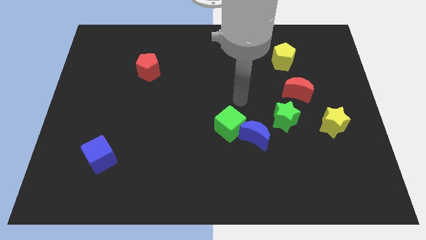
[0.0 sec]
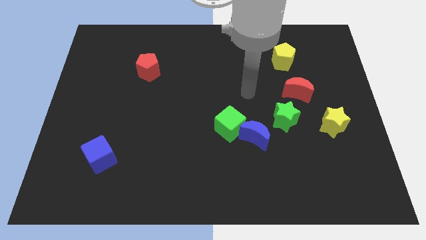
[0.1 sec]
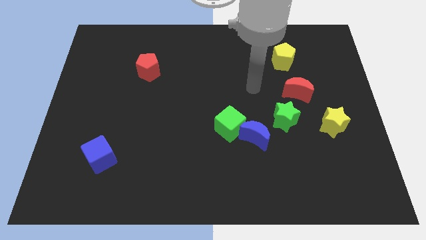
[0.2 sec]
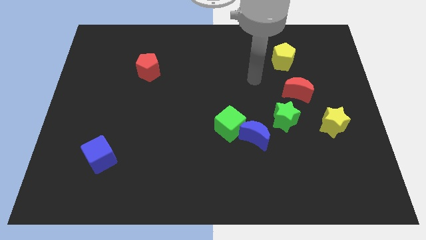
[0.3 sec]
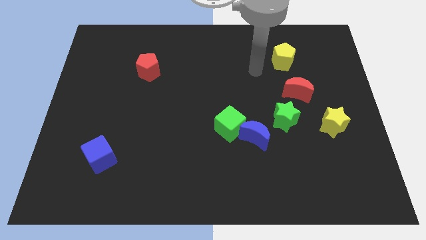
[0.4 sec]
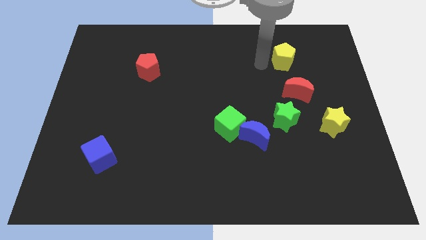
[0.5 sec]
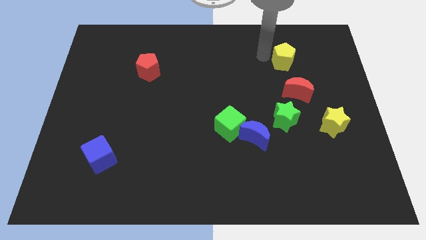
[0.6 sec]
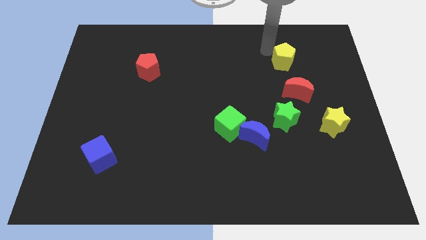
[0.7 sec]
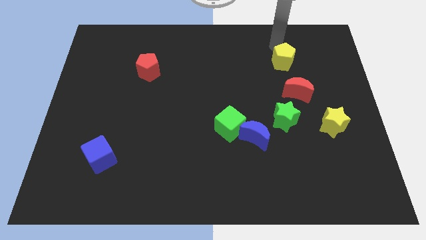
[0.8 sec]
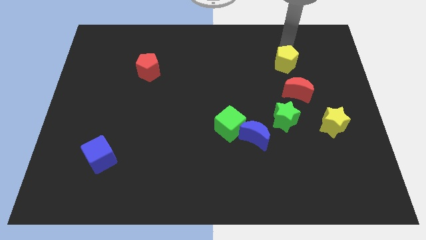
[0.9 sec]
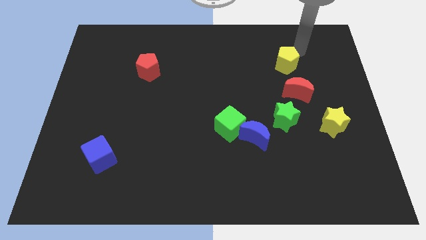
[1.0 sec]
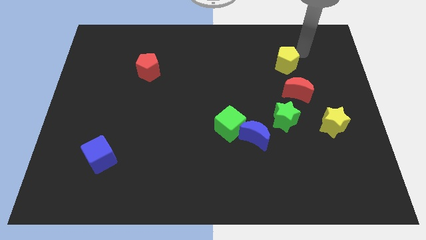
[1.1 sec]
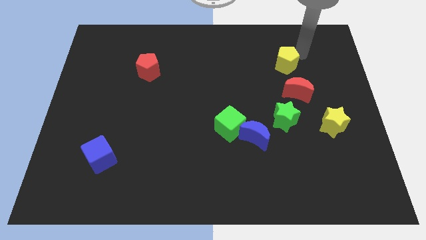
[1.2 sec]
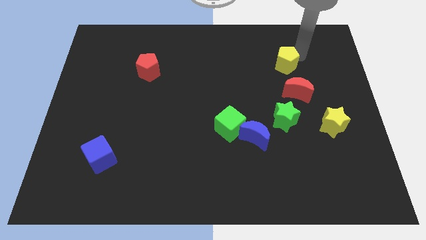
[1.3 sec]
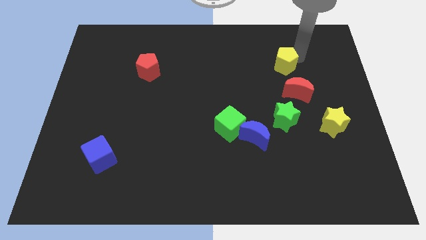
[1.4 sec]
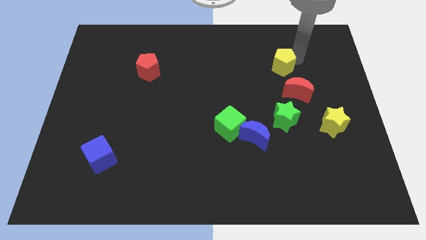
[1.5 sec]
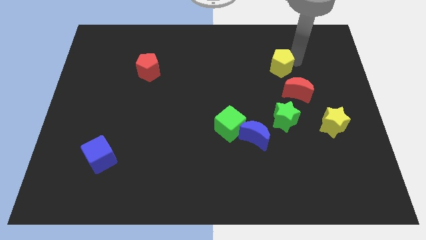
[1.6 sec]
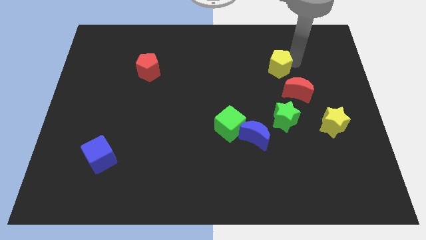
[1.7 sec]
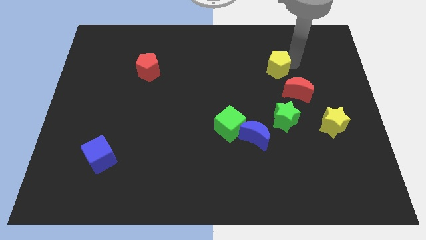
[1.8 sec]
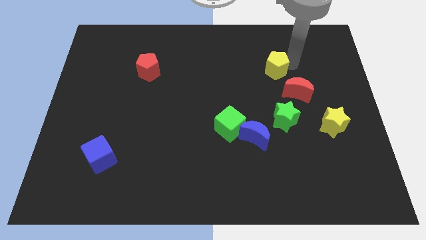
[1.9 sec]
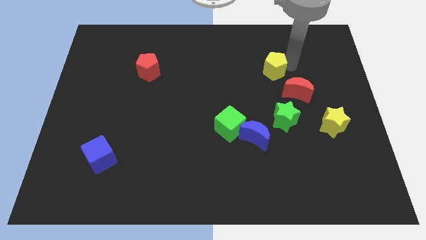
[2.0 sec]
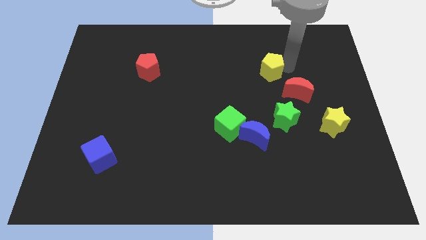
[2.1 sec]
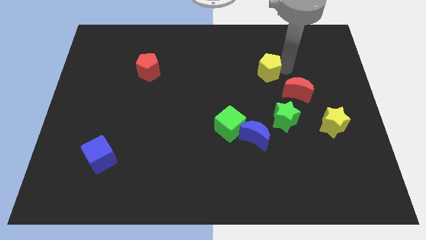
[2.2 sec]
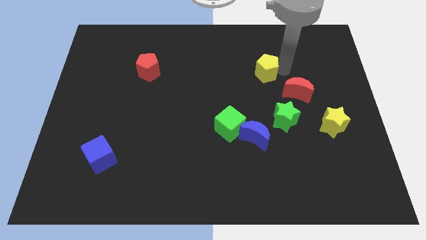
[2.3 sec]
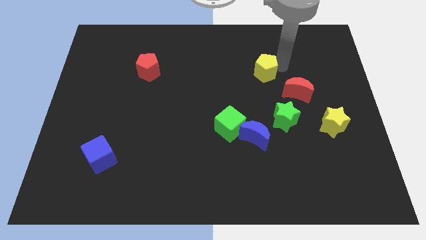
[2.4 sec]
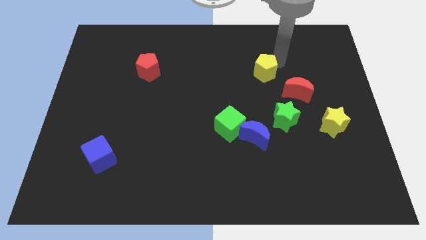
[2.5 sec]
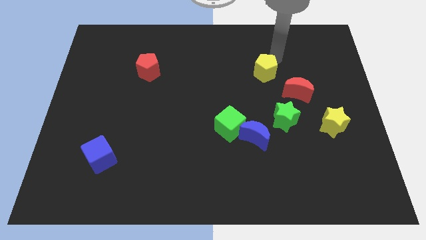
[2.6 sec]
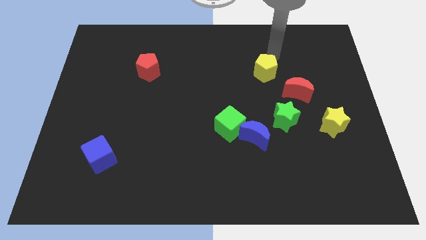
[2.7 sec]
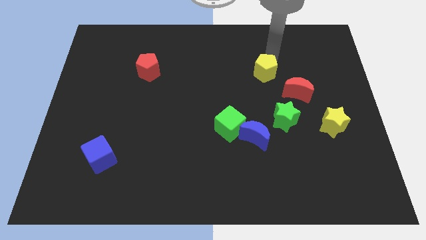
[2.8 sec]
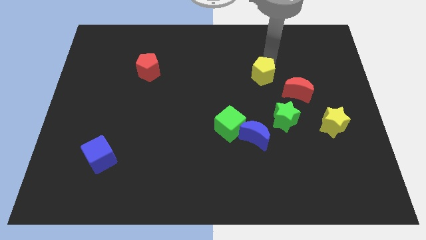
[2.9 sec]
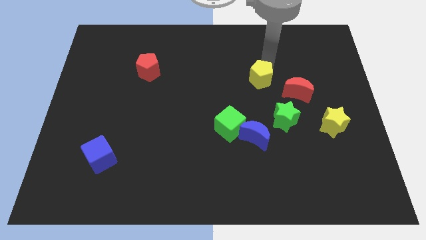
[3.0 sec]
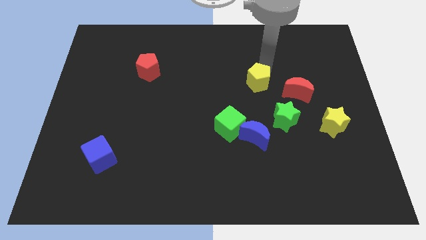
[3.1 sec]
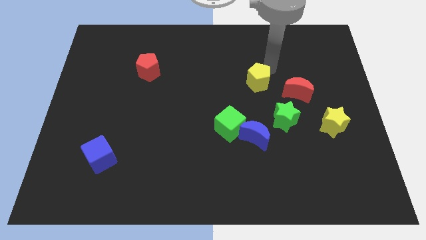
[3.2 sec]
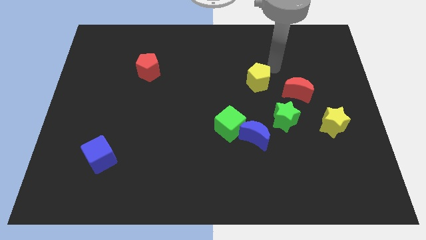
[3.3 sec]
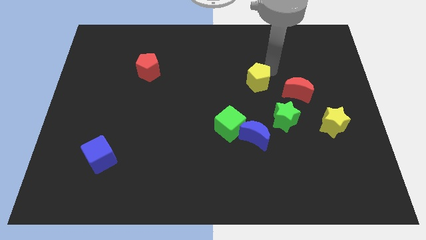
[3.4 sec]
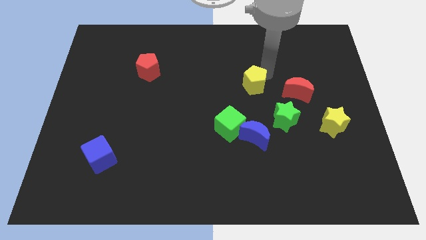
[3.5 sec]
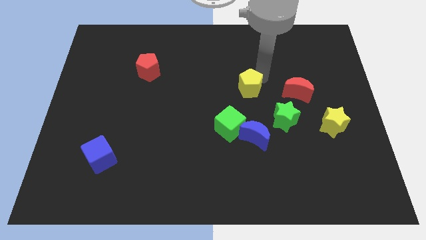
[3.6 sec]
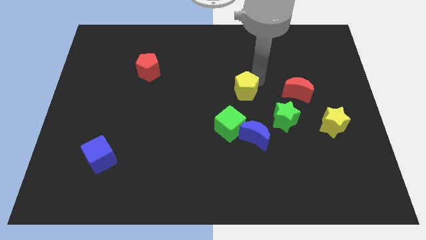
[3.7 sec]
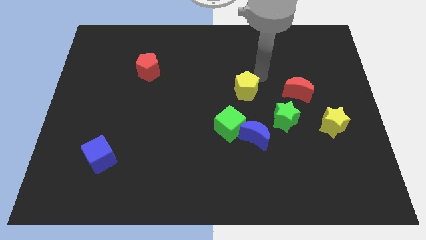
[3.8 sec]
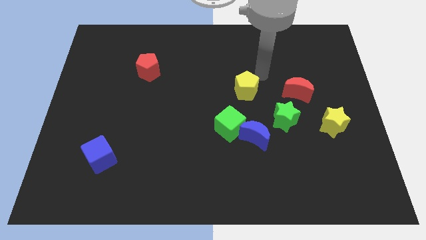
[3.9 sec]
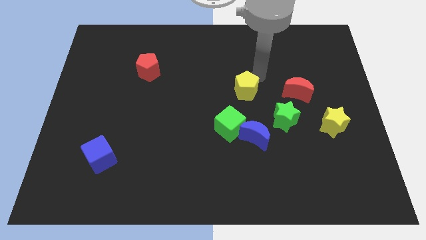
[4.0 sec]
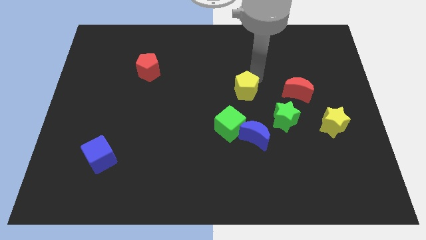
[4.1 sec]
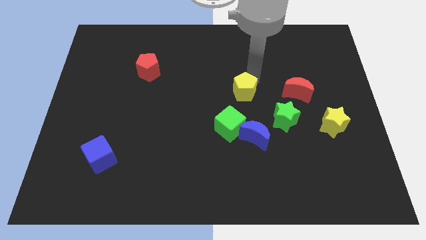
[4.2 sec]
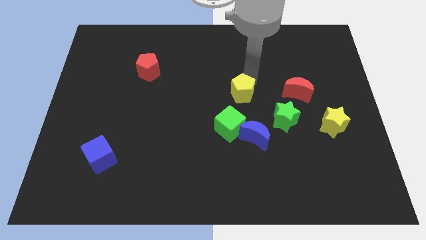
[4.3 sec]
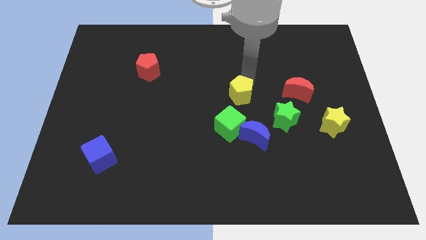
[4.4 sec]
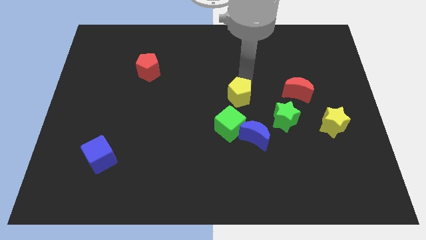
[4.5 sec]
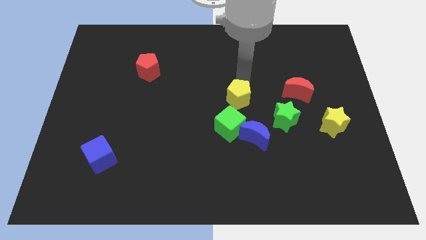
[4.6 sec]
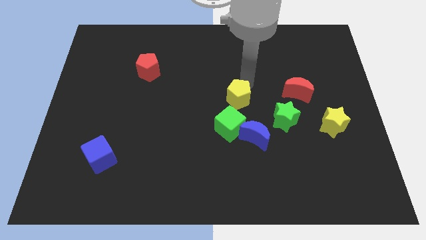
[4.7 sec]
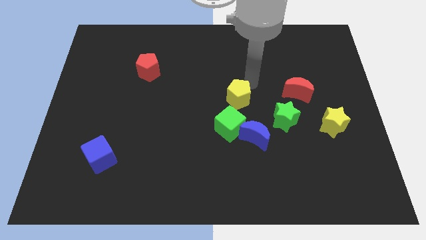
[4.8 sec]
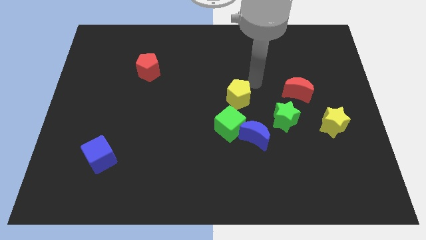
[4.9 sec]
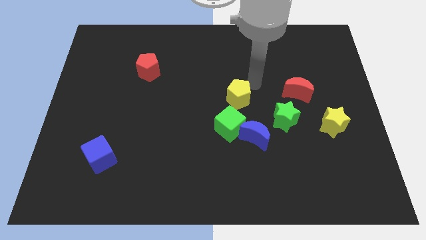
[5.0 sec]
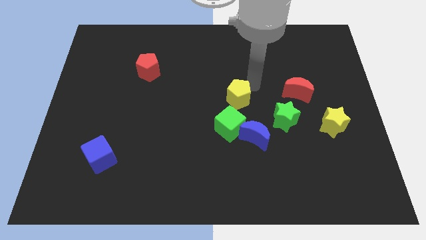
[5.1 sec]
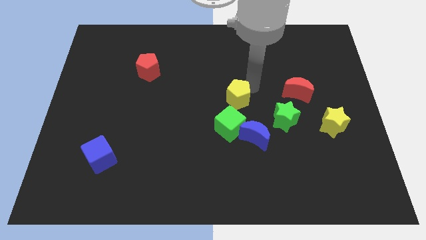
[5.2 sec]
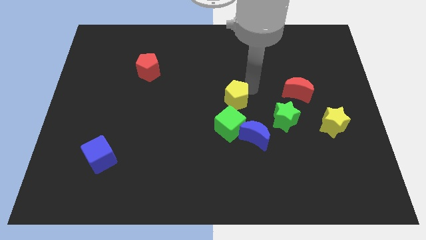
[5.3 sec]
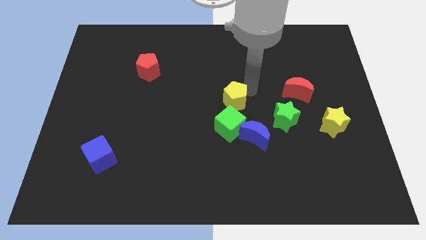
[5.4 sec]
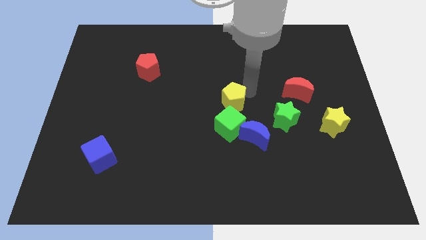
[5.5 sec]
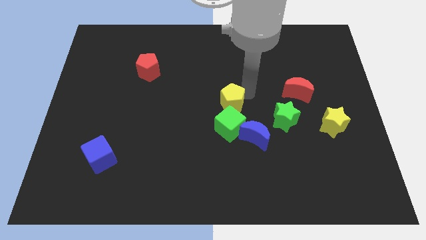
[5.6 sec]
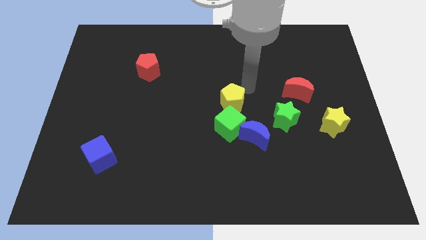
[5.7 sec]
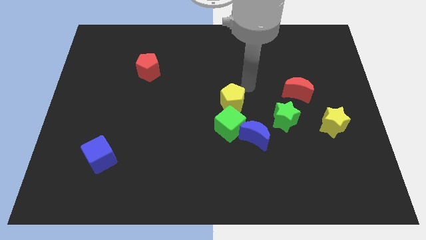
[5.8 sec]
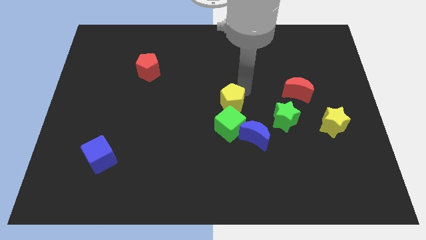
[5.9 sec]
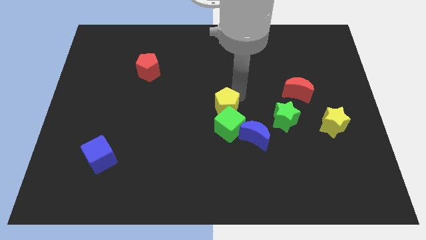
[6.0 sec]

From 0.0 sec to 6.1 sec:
slide the yellow pentagon down and to the left diagonally

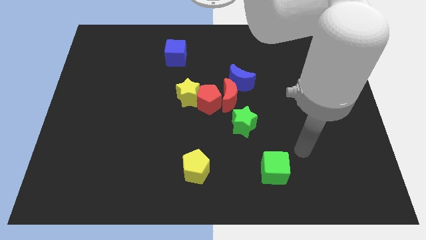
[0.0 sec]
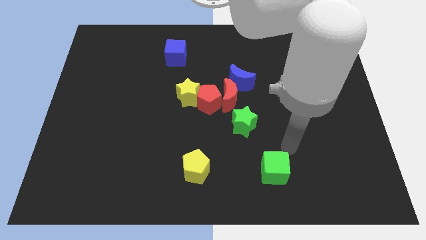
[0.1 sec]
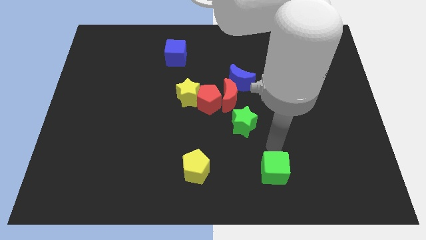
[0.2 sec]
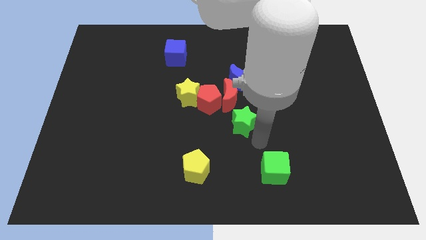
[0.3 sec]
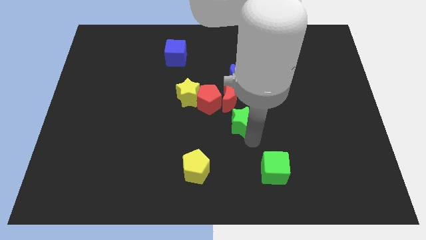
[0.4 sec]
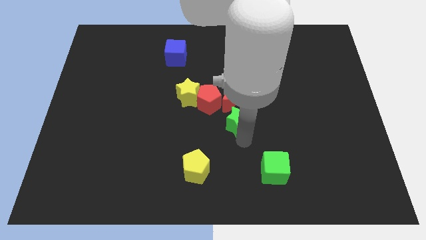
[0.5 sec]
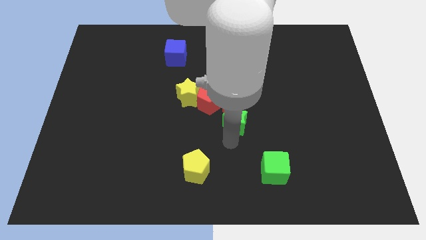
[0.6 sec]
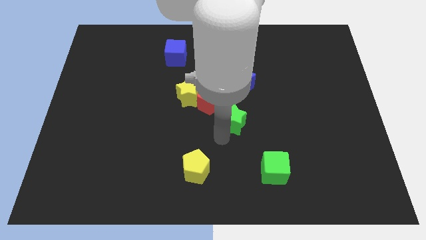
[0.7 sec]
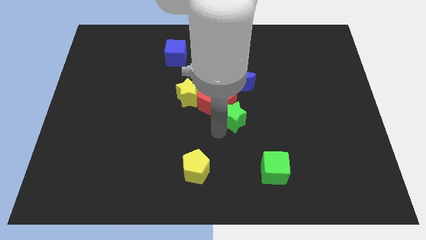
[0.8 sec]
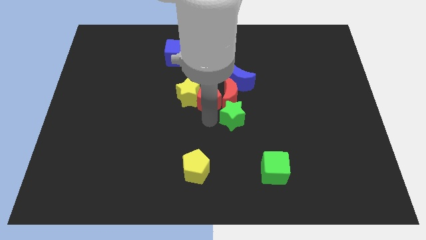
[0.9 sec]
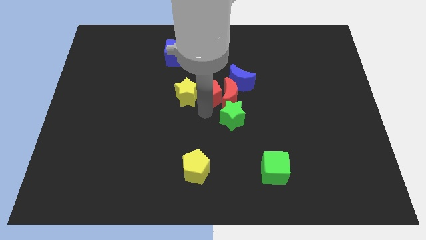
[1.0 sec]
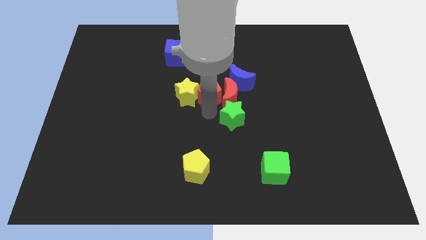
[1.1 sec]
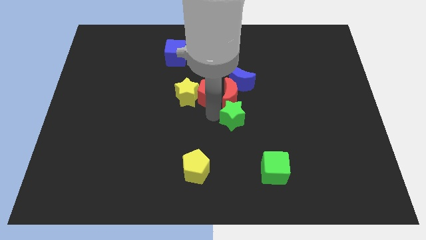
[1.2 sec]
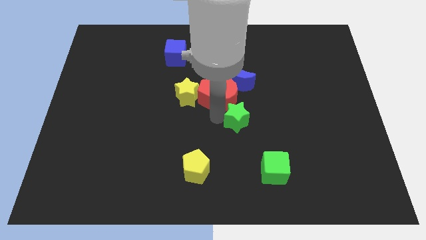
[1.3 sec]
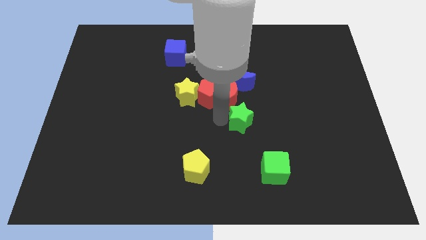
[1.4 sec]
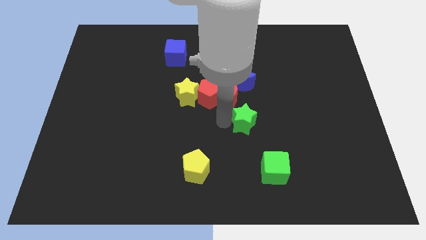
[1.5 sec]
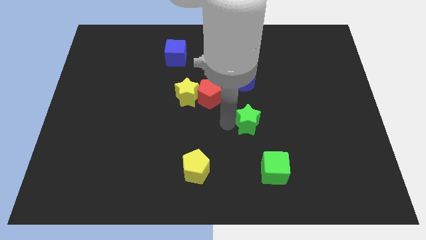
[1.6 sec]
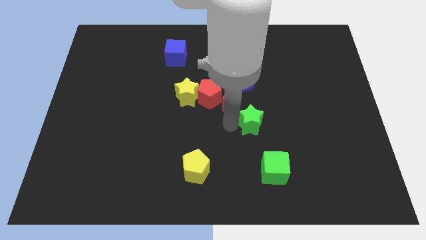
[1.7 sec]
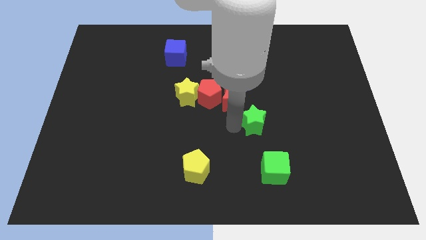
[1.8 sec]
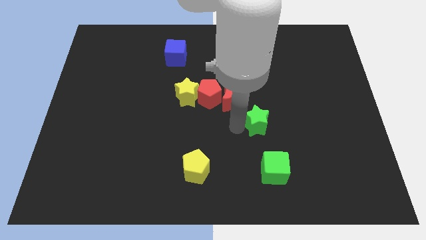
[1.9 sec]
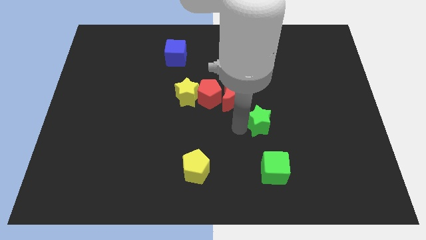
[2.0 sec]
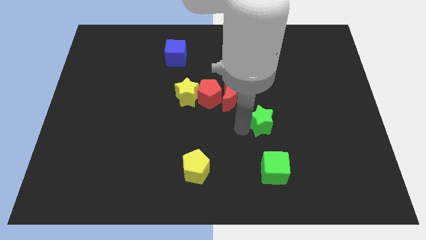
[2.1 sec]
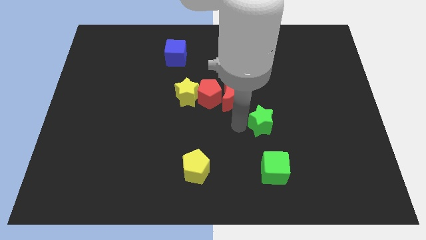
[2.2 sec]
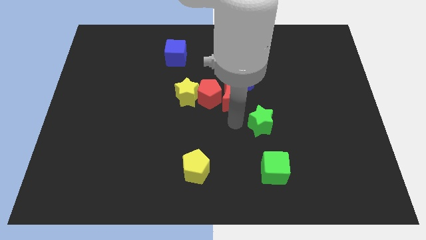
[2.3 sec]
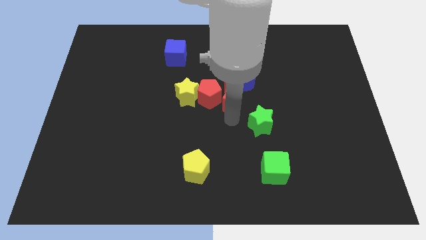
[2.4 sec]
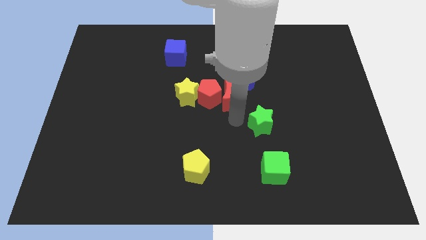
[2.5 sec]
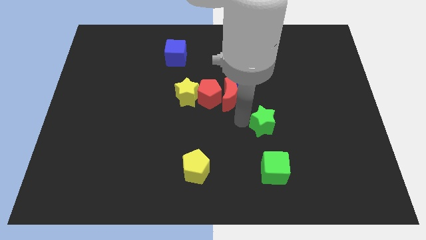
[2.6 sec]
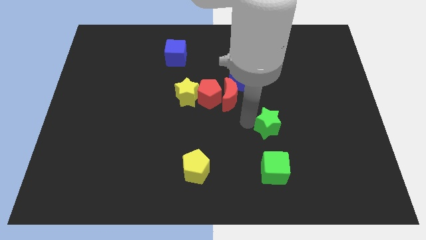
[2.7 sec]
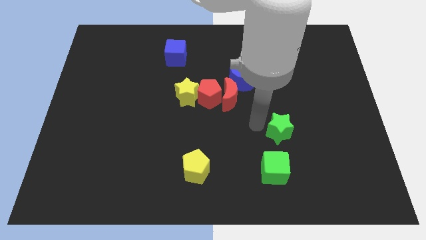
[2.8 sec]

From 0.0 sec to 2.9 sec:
move the green star slightly right
